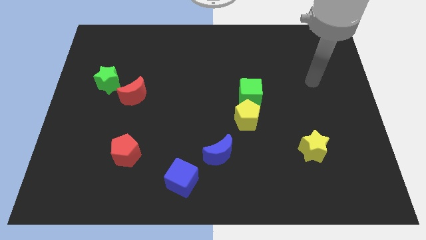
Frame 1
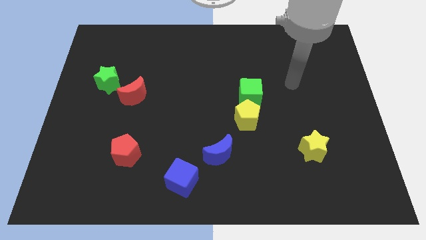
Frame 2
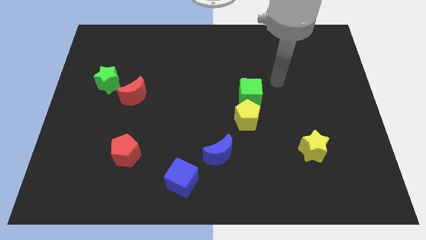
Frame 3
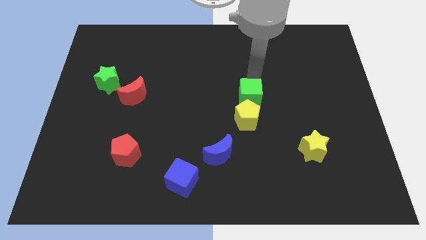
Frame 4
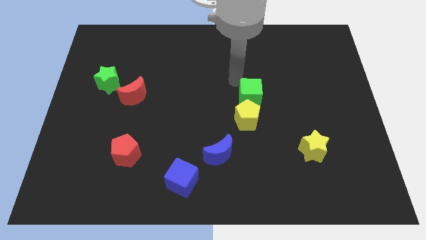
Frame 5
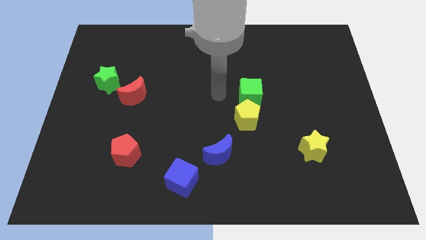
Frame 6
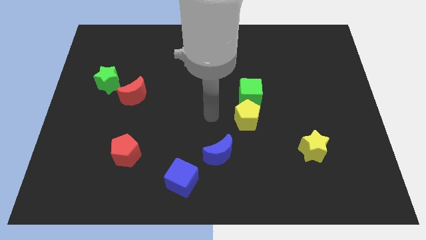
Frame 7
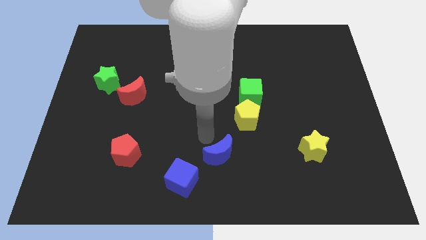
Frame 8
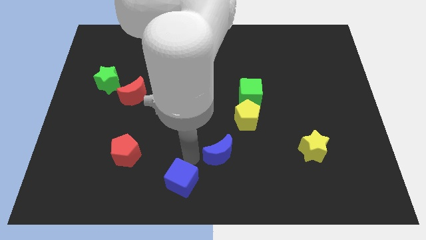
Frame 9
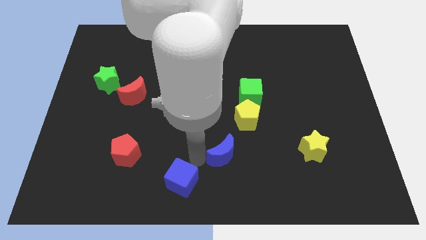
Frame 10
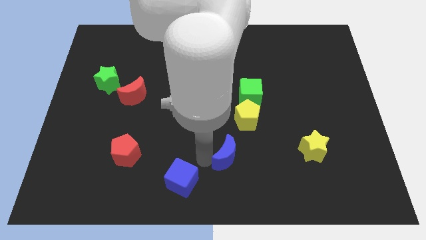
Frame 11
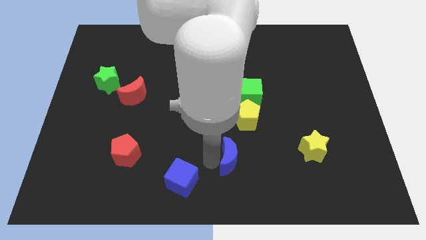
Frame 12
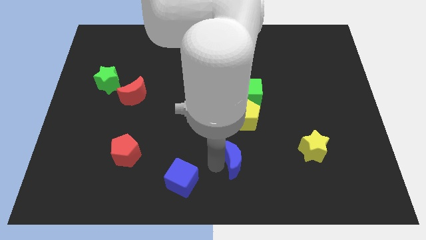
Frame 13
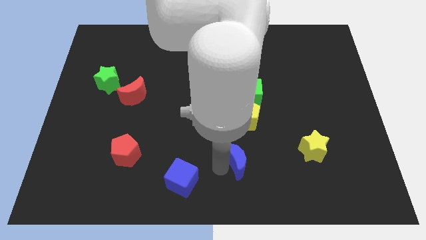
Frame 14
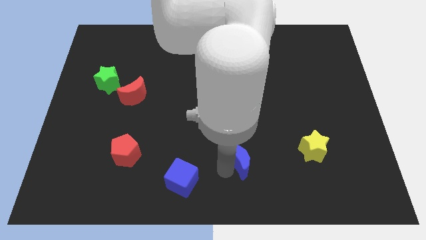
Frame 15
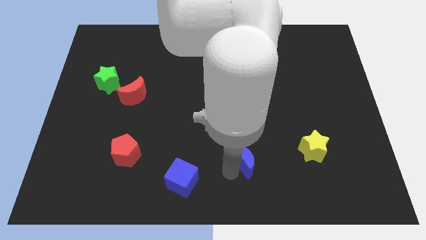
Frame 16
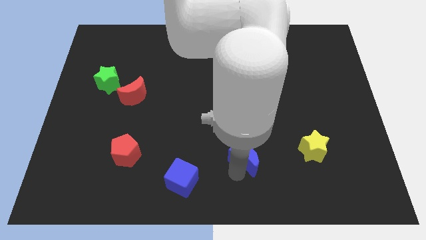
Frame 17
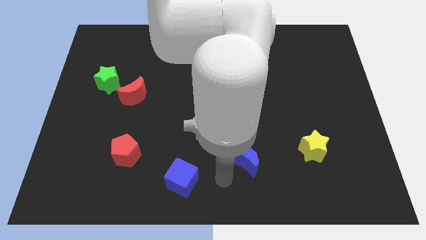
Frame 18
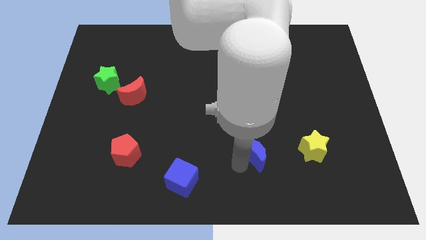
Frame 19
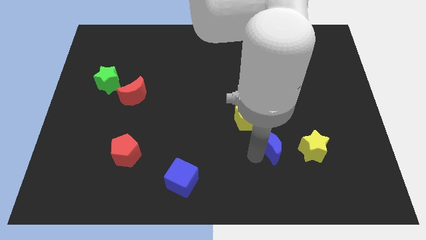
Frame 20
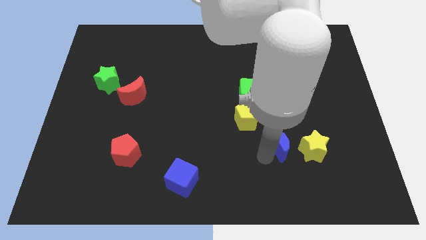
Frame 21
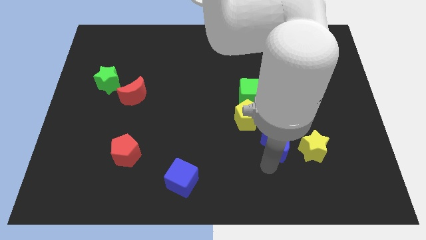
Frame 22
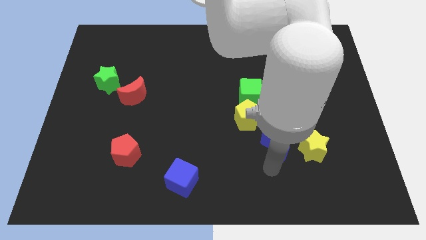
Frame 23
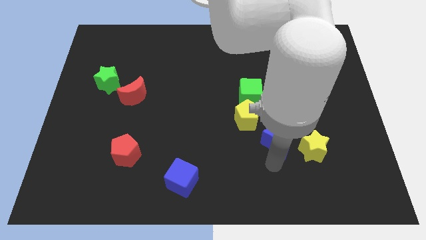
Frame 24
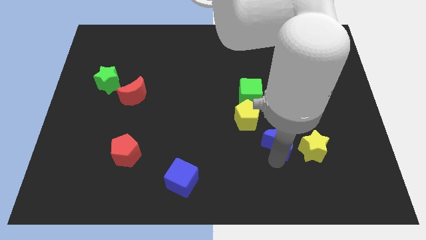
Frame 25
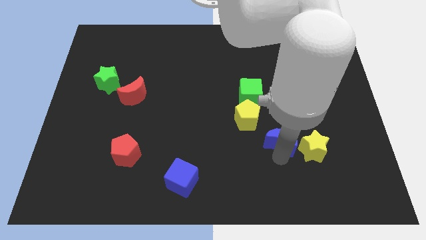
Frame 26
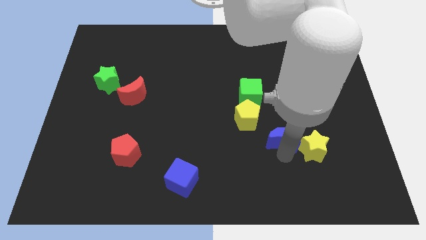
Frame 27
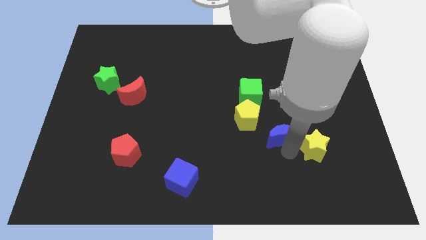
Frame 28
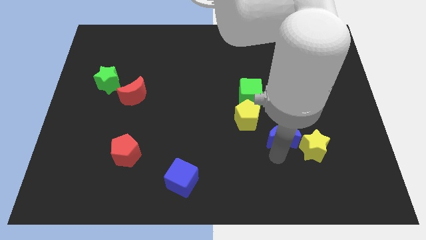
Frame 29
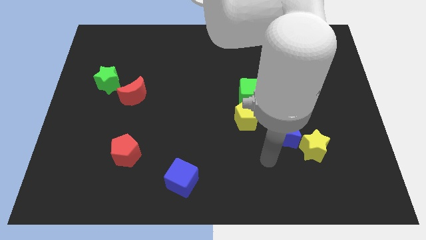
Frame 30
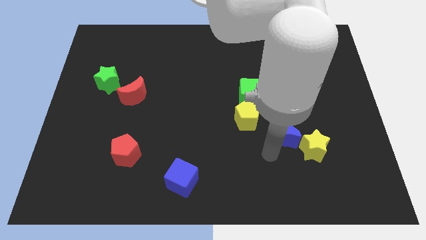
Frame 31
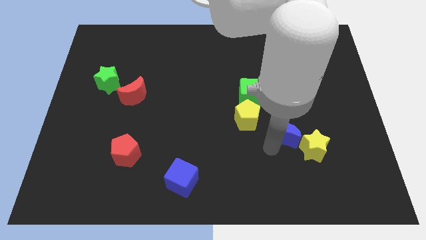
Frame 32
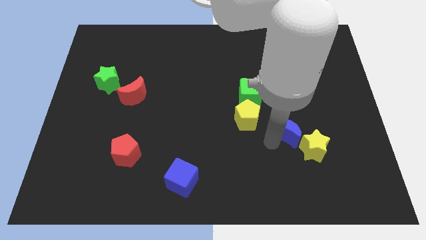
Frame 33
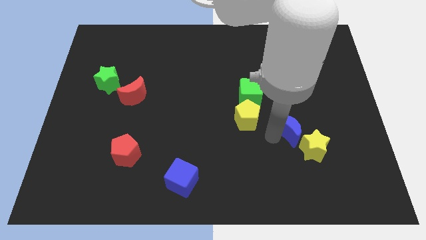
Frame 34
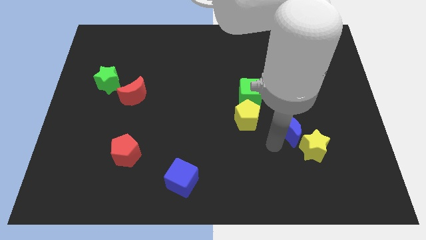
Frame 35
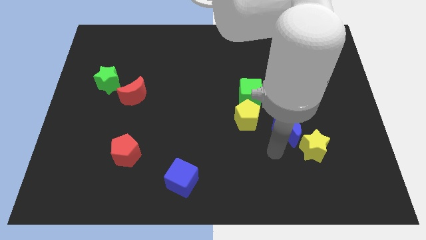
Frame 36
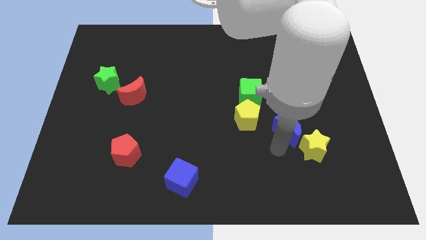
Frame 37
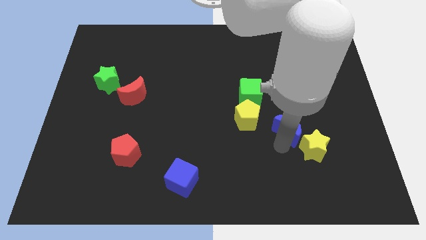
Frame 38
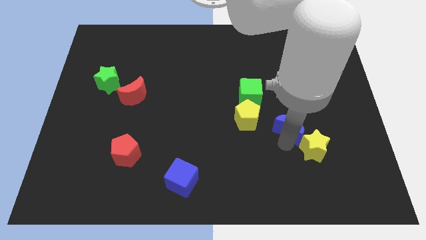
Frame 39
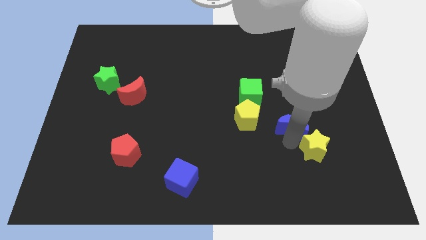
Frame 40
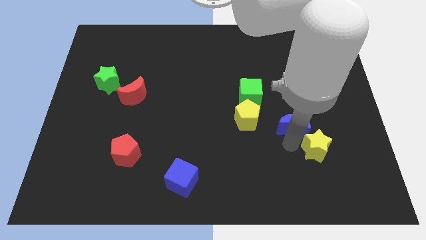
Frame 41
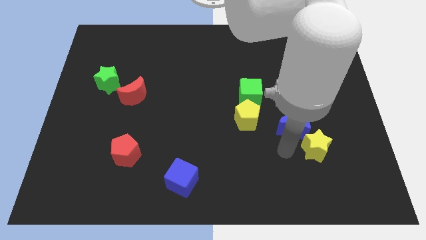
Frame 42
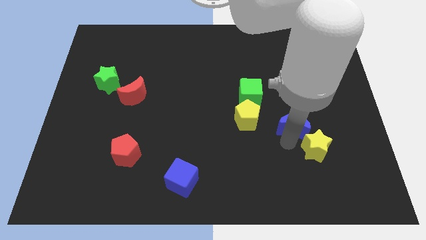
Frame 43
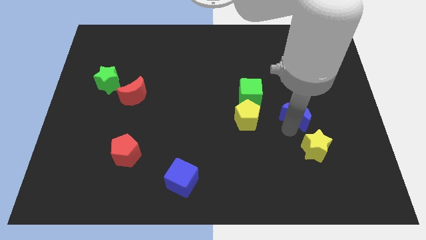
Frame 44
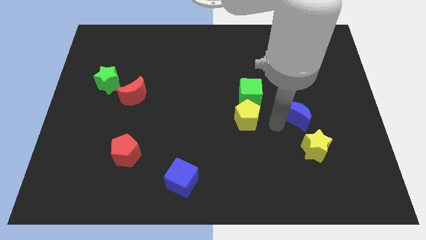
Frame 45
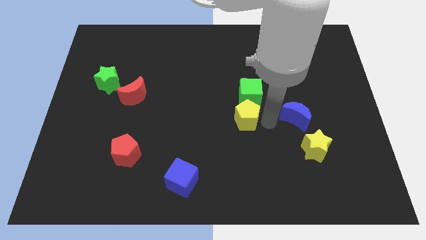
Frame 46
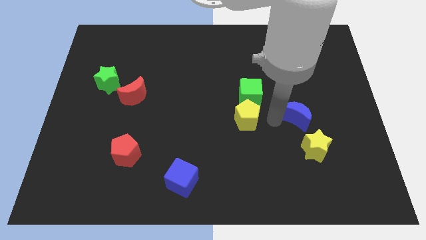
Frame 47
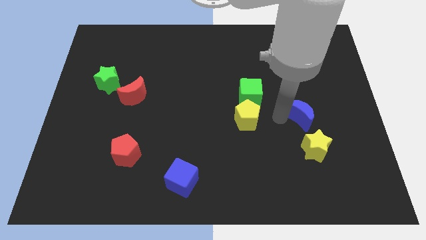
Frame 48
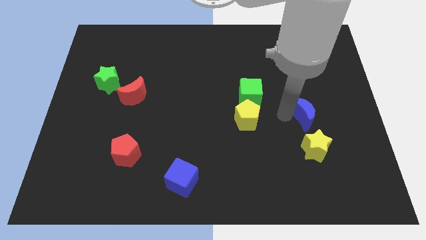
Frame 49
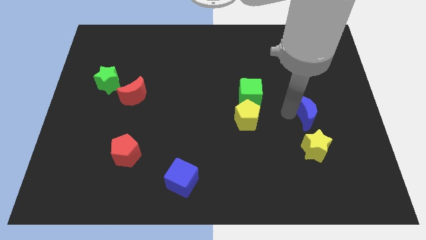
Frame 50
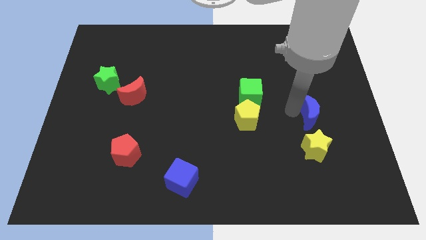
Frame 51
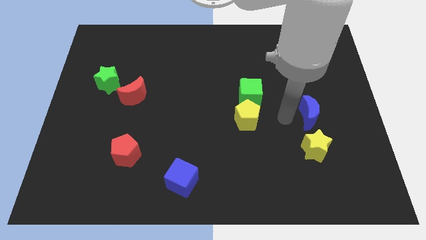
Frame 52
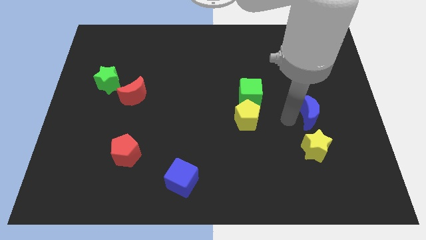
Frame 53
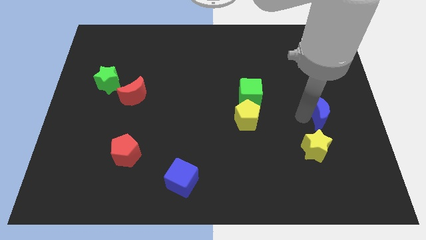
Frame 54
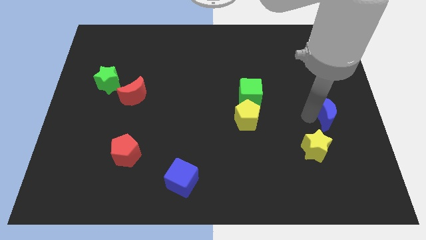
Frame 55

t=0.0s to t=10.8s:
push the blue moon to the center right
